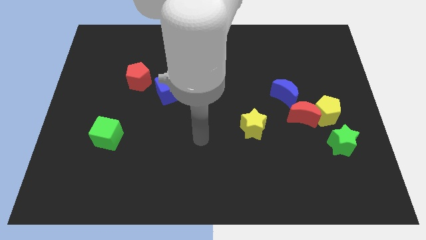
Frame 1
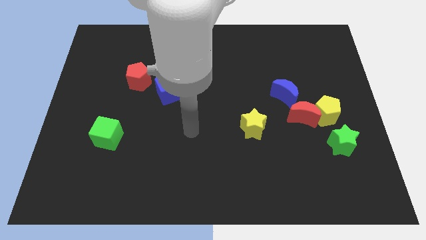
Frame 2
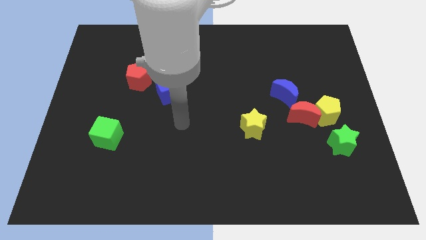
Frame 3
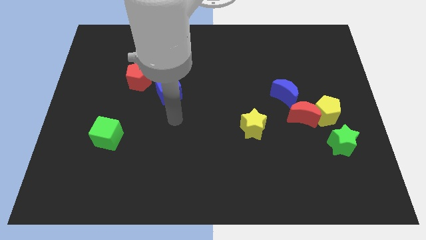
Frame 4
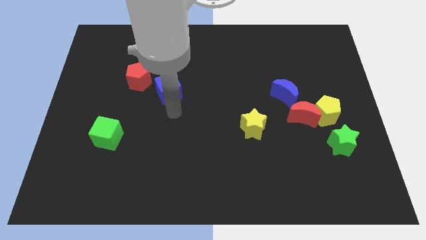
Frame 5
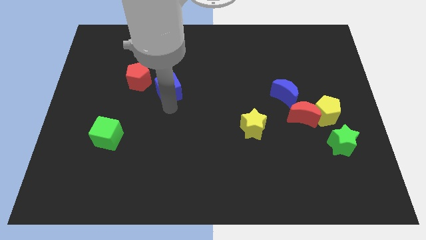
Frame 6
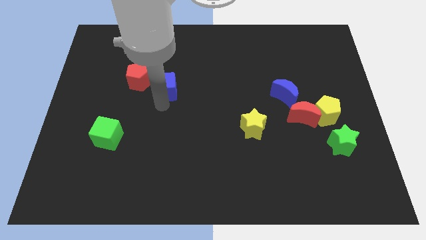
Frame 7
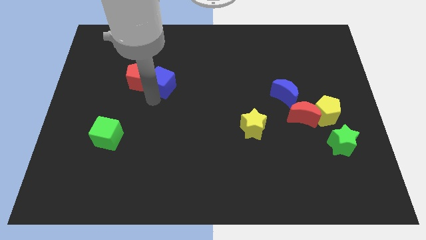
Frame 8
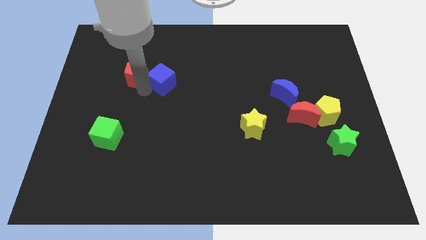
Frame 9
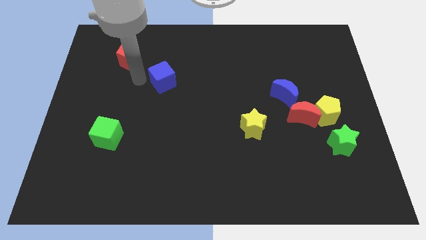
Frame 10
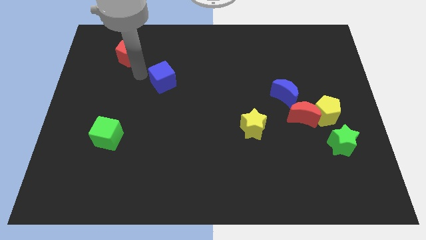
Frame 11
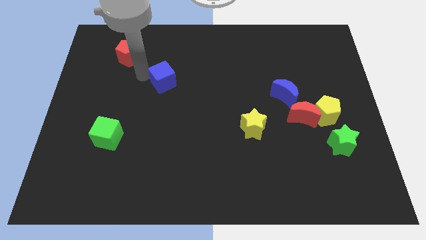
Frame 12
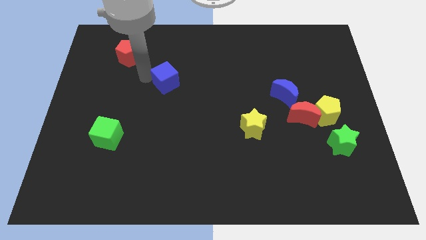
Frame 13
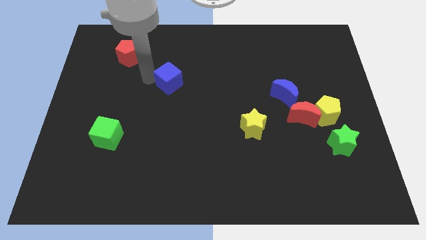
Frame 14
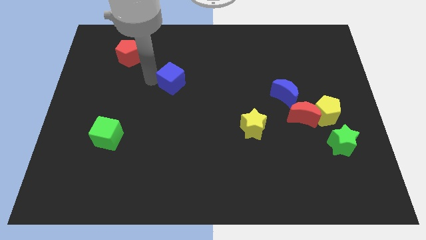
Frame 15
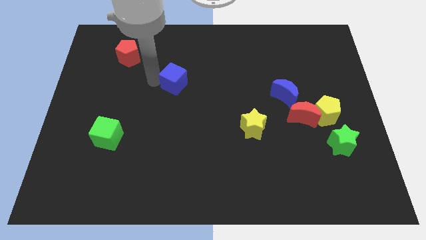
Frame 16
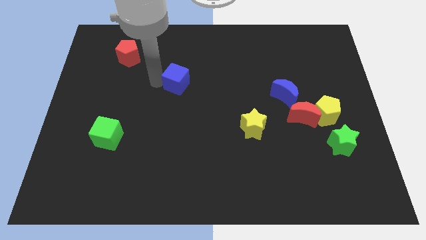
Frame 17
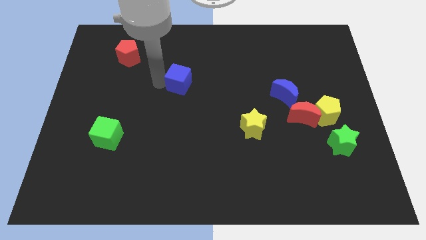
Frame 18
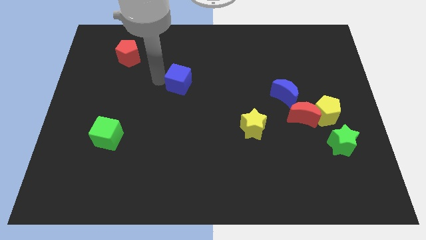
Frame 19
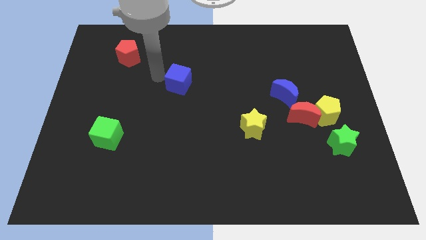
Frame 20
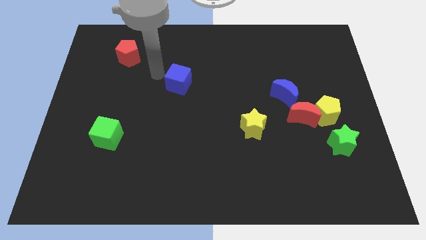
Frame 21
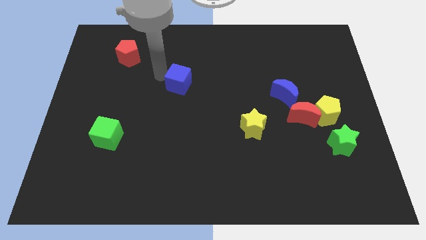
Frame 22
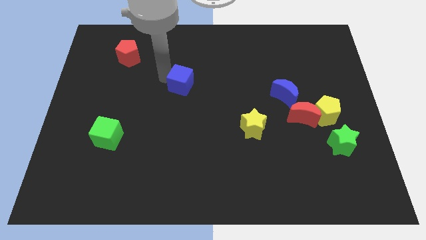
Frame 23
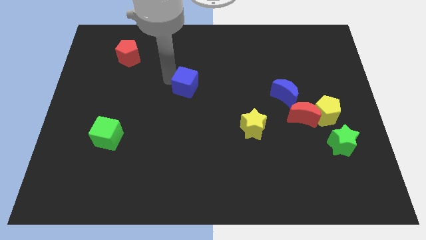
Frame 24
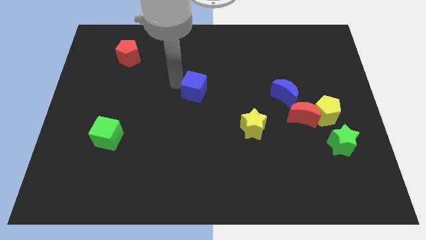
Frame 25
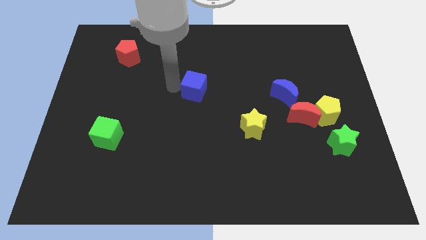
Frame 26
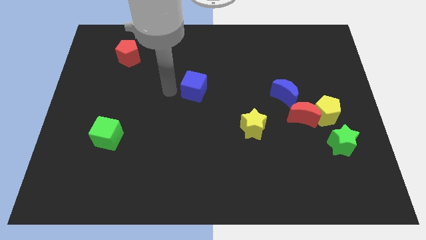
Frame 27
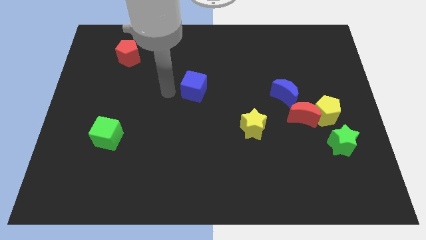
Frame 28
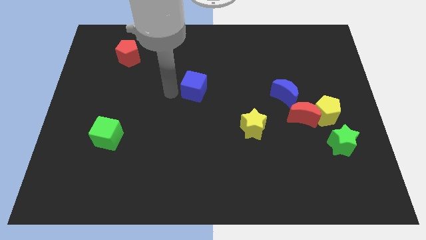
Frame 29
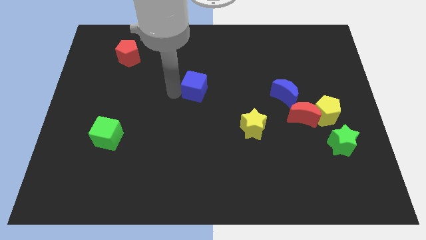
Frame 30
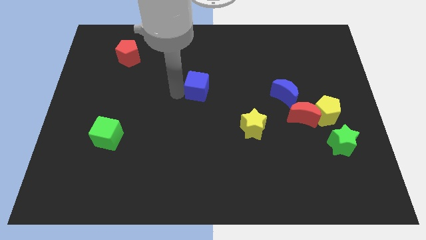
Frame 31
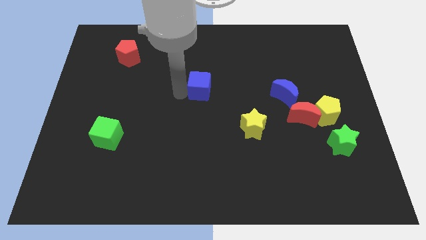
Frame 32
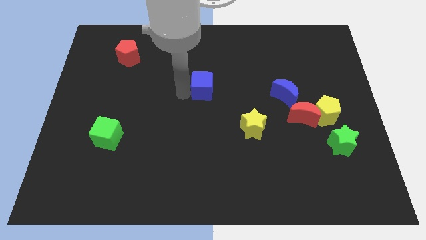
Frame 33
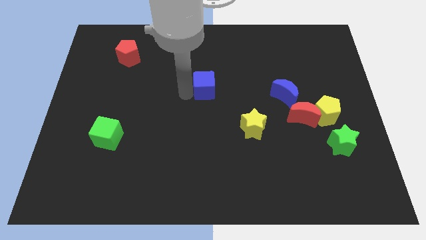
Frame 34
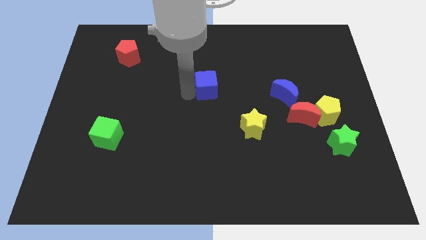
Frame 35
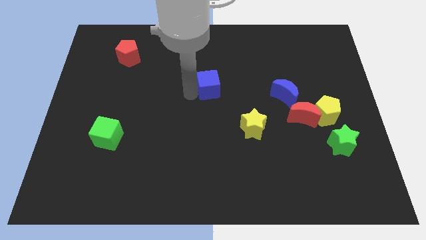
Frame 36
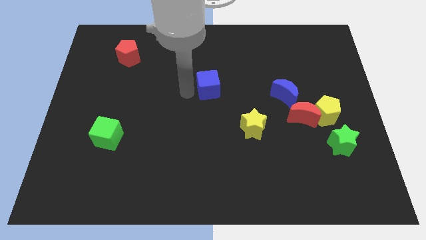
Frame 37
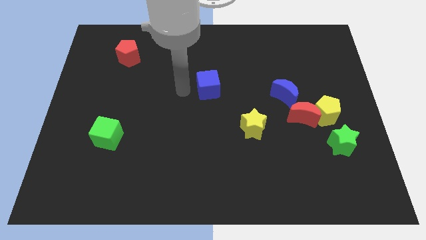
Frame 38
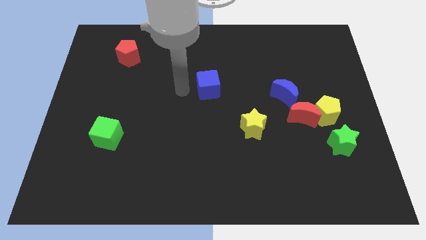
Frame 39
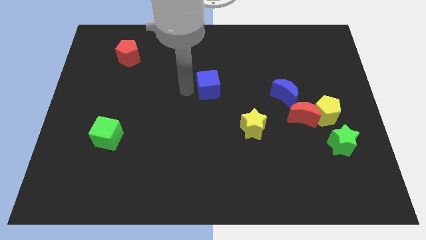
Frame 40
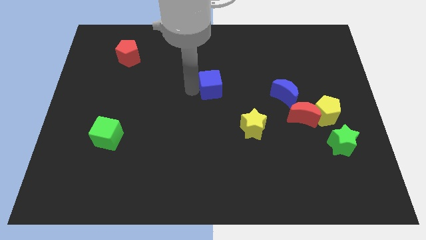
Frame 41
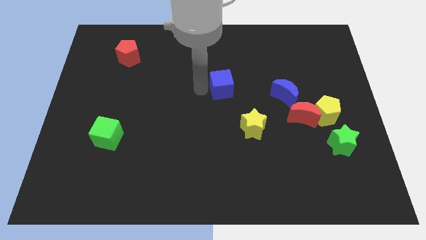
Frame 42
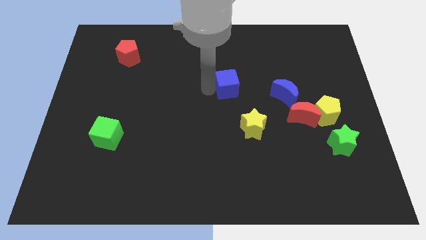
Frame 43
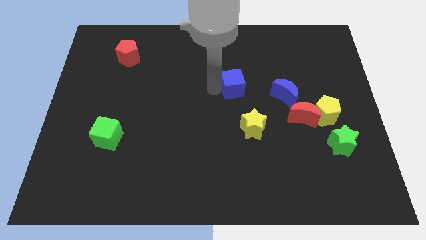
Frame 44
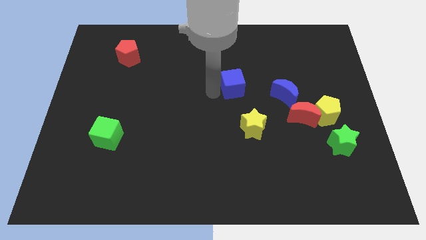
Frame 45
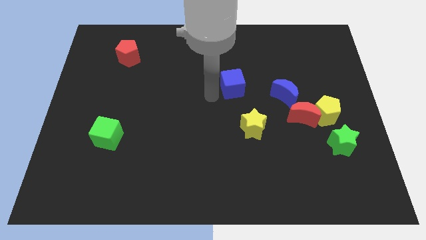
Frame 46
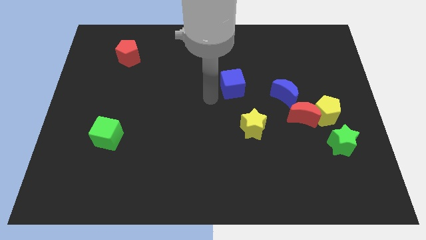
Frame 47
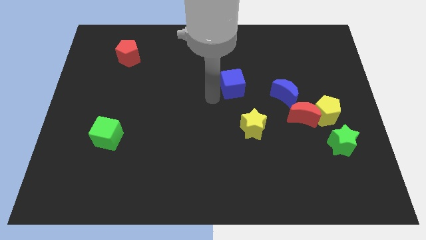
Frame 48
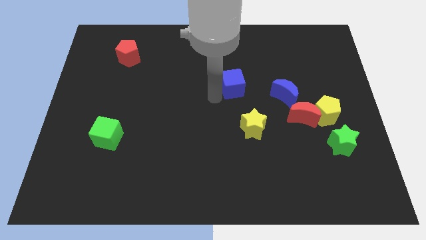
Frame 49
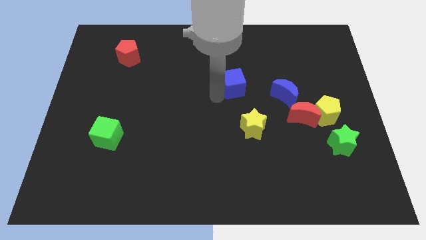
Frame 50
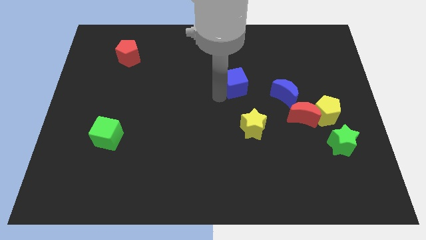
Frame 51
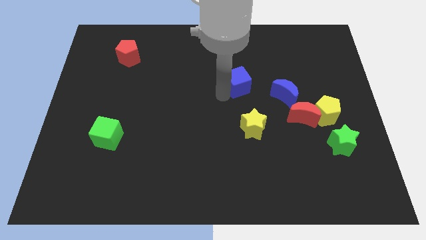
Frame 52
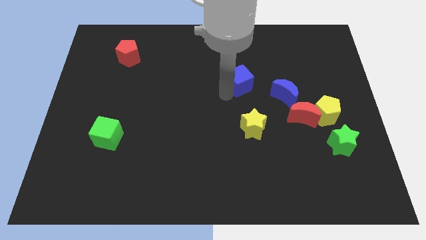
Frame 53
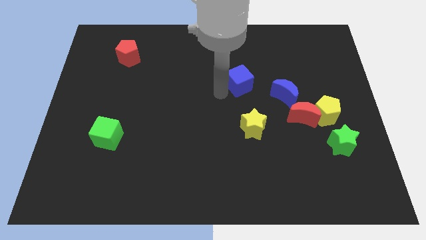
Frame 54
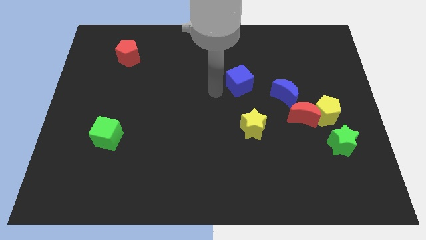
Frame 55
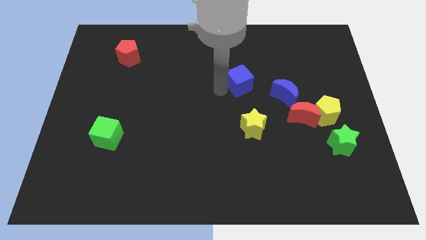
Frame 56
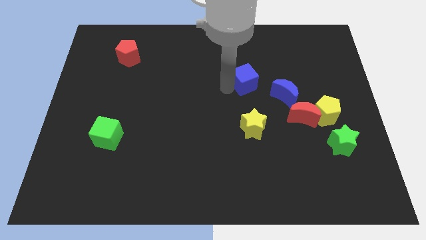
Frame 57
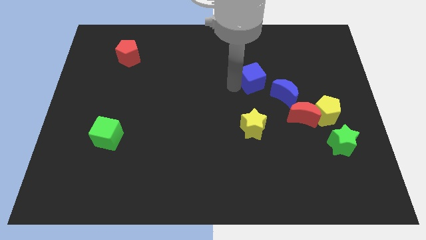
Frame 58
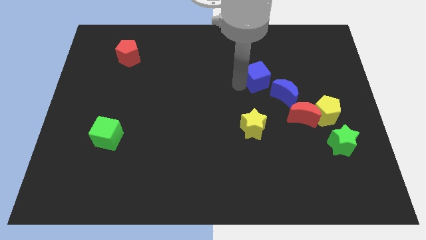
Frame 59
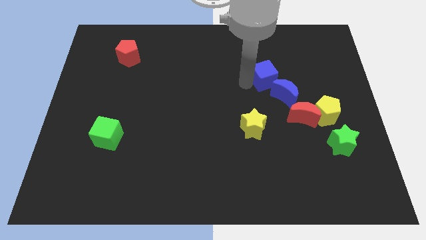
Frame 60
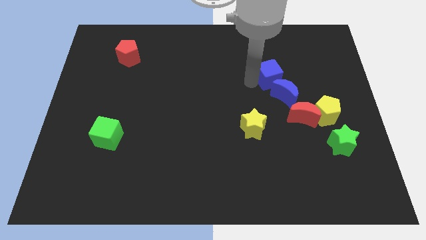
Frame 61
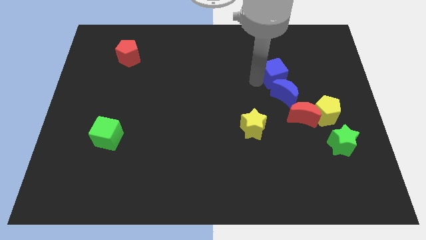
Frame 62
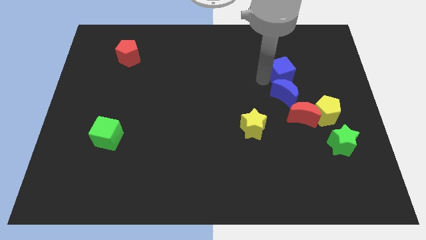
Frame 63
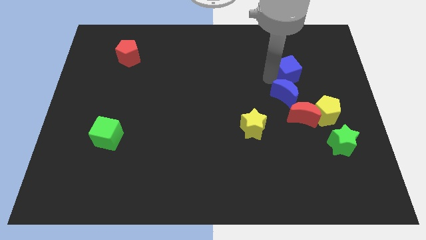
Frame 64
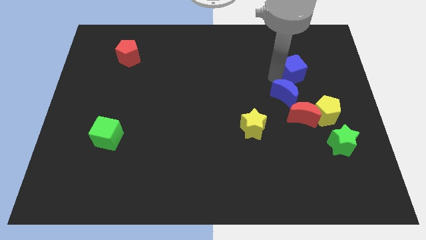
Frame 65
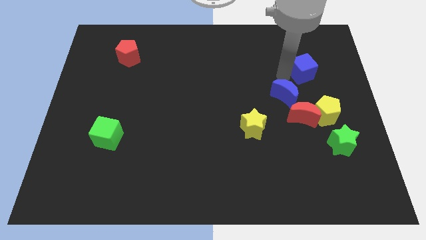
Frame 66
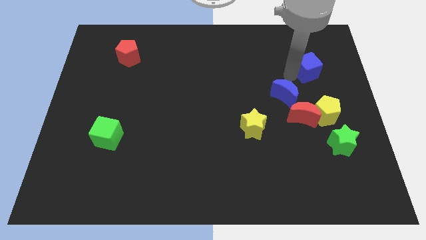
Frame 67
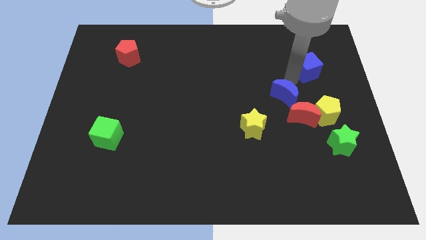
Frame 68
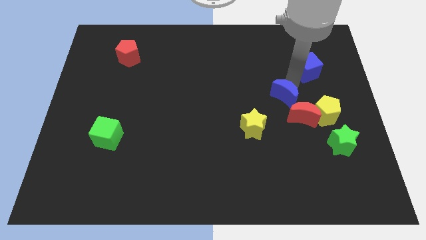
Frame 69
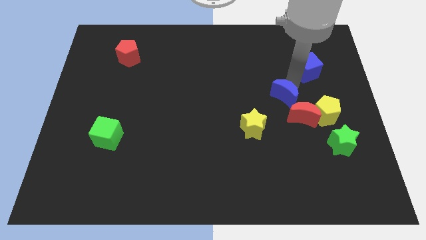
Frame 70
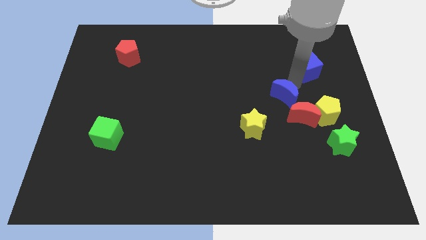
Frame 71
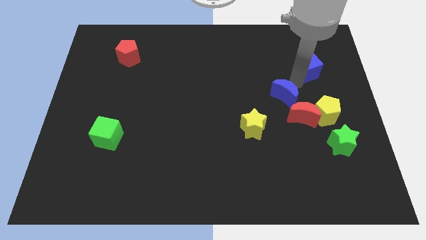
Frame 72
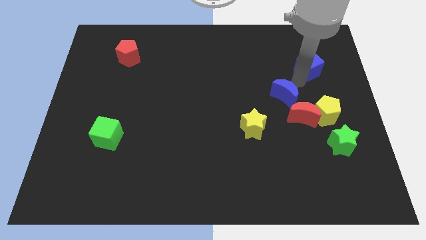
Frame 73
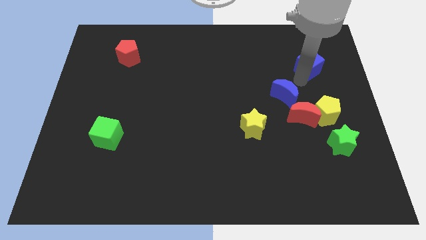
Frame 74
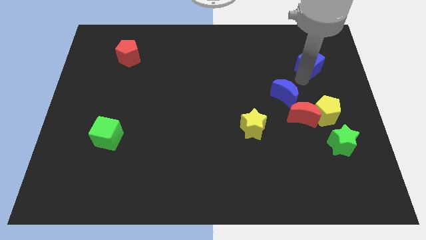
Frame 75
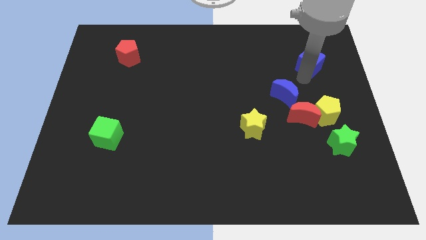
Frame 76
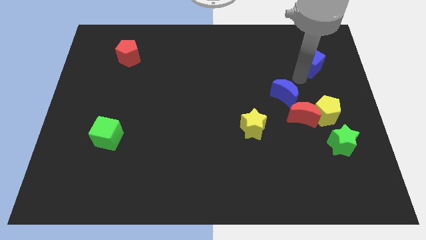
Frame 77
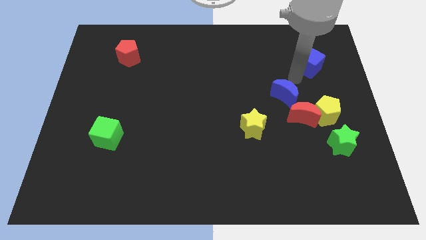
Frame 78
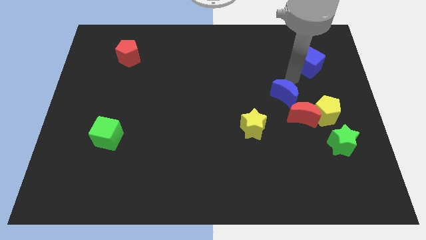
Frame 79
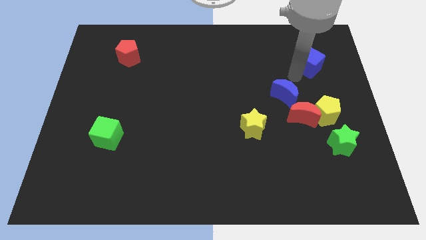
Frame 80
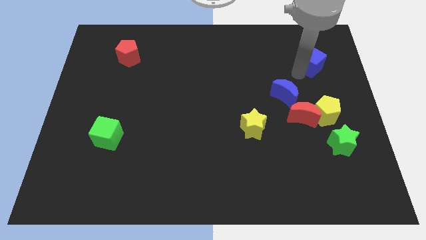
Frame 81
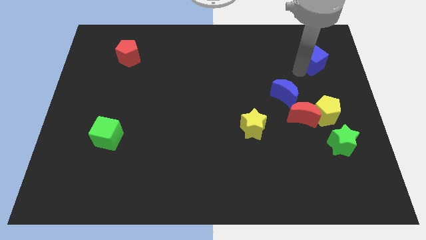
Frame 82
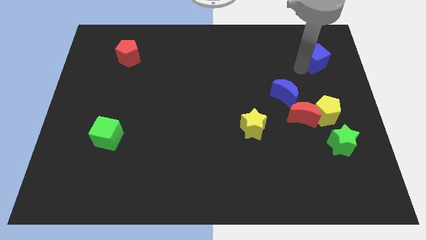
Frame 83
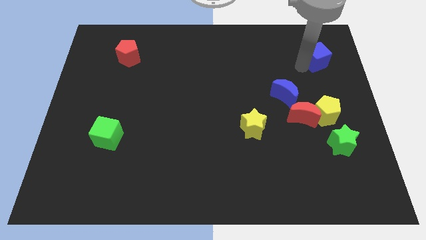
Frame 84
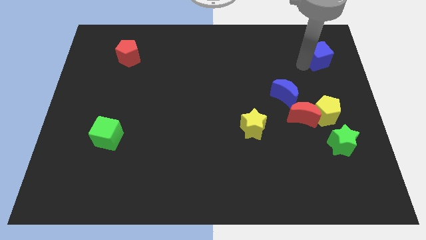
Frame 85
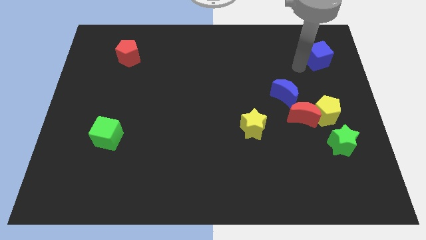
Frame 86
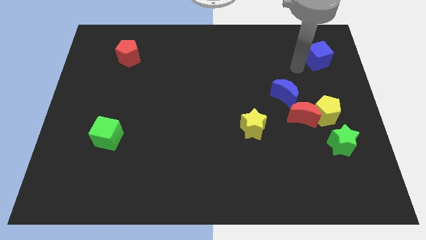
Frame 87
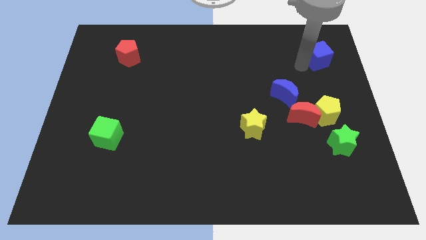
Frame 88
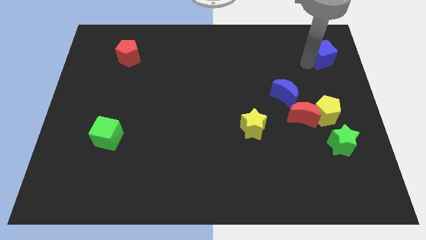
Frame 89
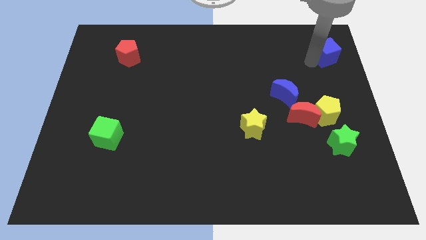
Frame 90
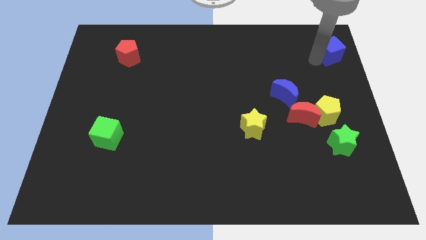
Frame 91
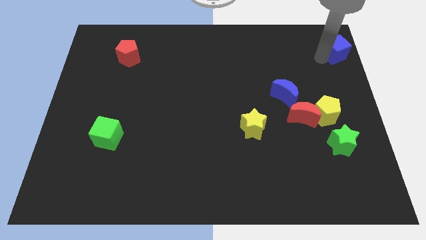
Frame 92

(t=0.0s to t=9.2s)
slide the blue cube to the top right
